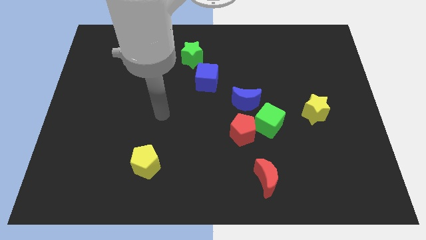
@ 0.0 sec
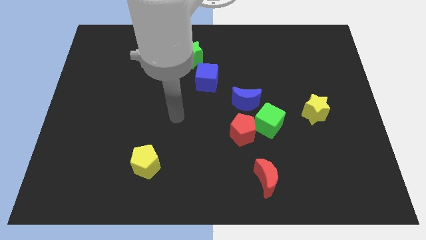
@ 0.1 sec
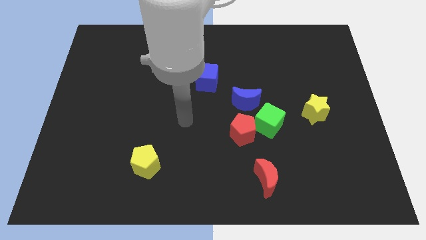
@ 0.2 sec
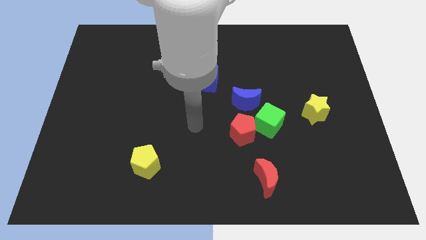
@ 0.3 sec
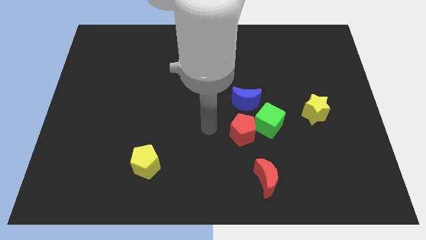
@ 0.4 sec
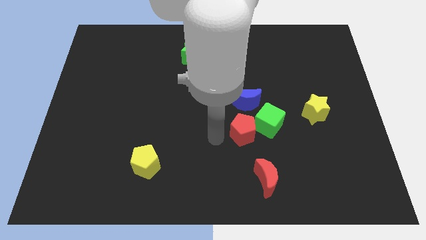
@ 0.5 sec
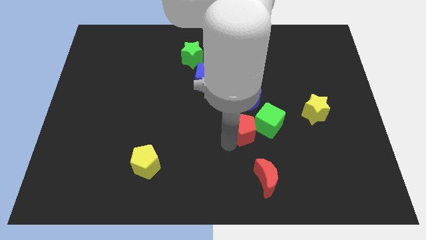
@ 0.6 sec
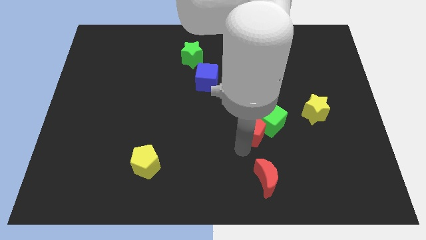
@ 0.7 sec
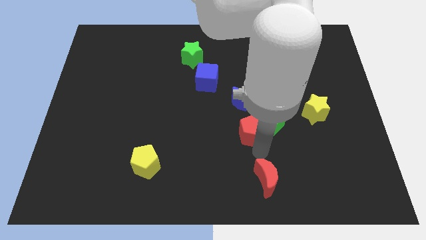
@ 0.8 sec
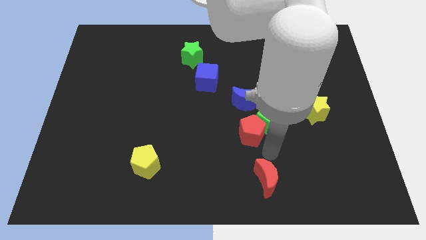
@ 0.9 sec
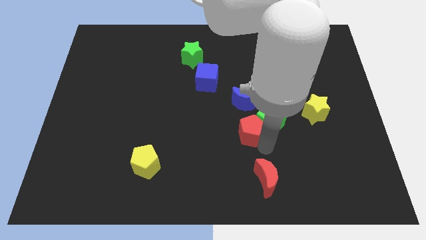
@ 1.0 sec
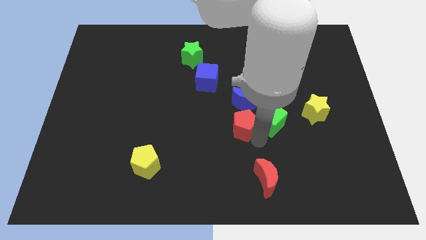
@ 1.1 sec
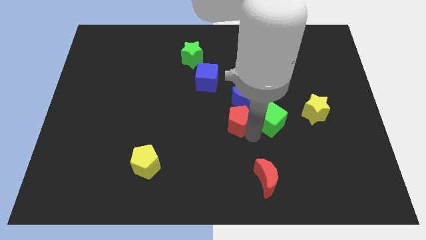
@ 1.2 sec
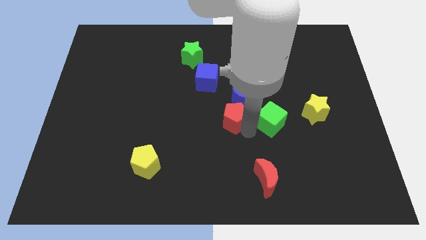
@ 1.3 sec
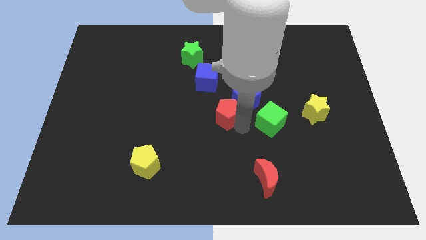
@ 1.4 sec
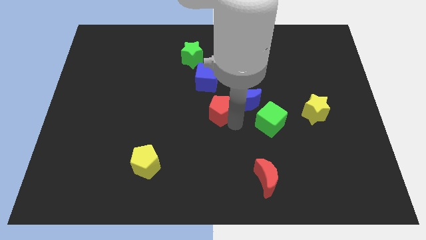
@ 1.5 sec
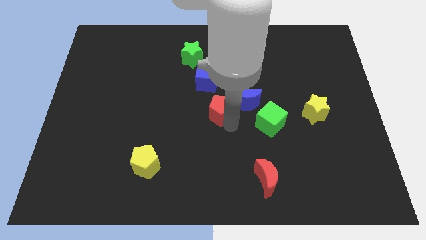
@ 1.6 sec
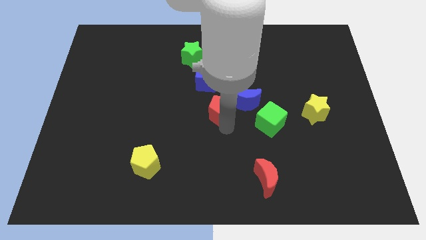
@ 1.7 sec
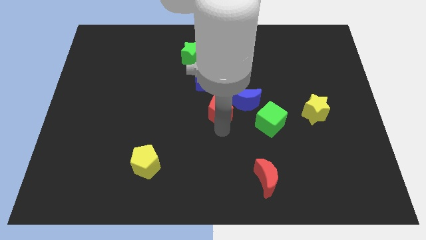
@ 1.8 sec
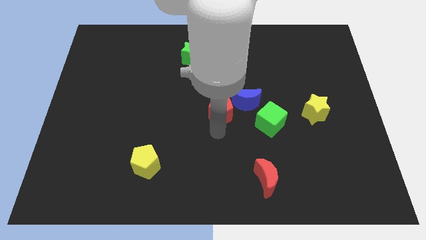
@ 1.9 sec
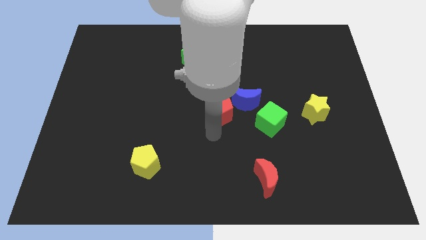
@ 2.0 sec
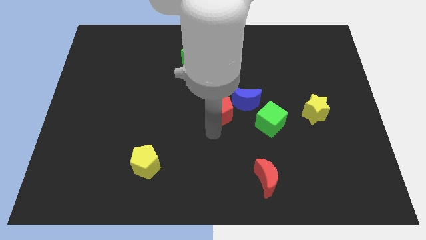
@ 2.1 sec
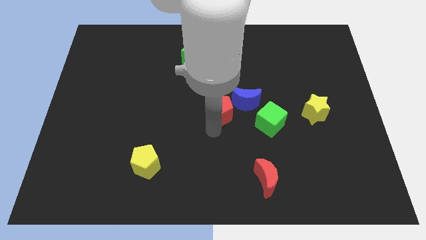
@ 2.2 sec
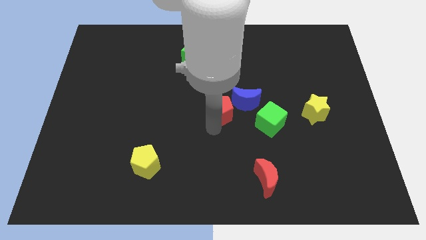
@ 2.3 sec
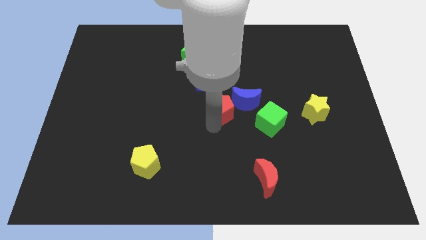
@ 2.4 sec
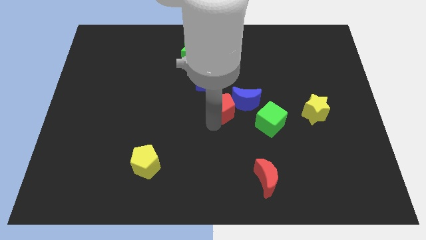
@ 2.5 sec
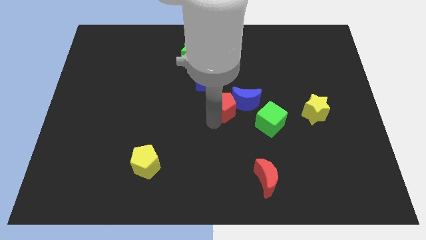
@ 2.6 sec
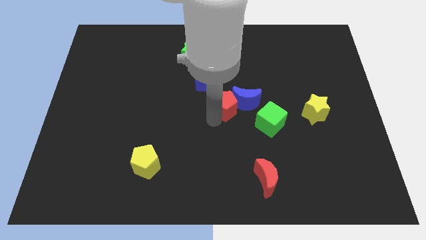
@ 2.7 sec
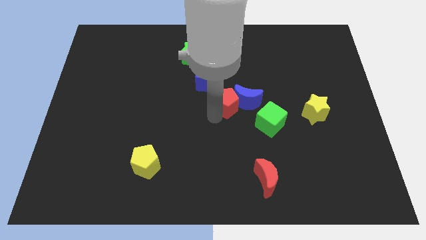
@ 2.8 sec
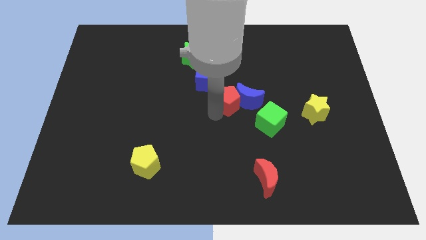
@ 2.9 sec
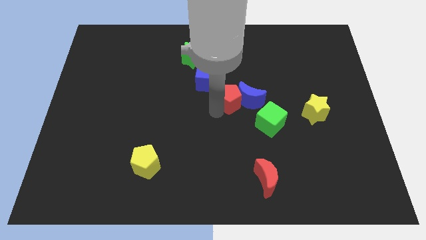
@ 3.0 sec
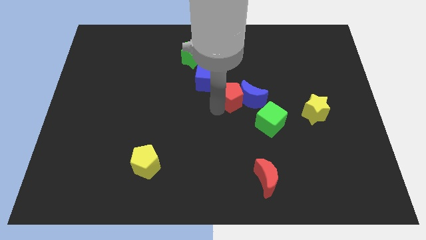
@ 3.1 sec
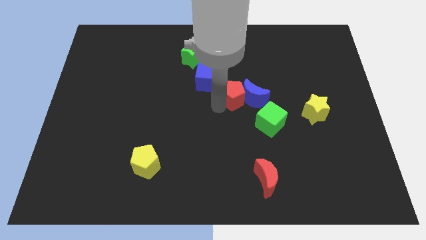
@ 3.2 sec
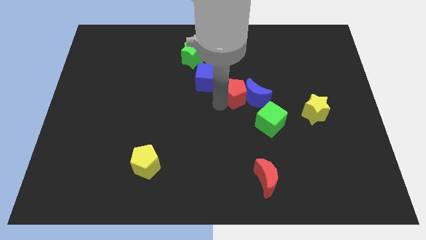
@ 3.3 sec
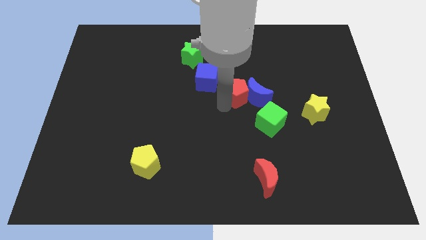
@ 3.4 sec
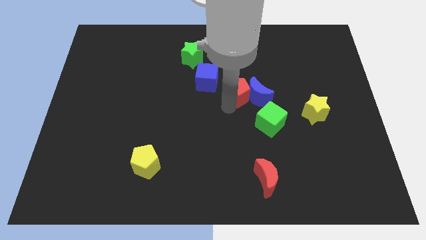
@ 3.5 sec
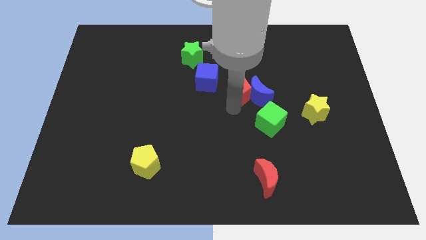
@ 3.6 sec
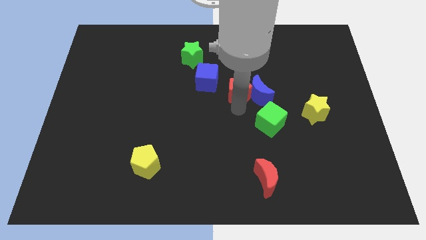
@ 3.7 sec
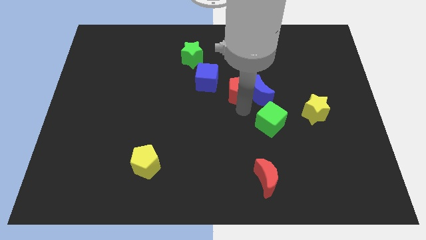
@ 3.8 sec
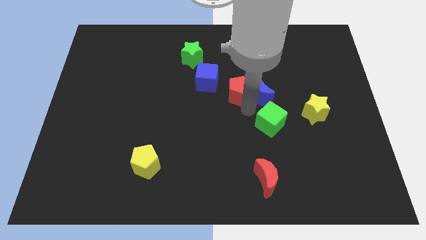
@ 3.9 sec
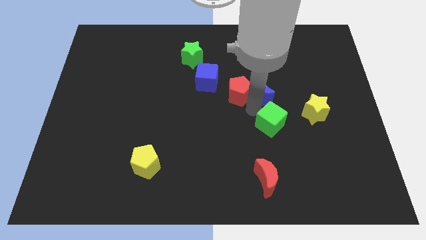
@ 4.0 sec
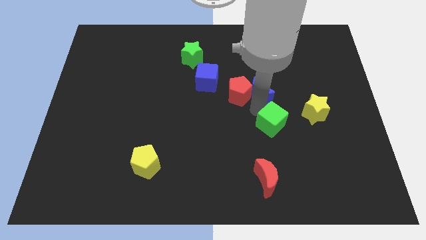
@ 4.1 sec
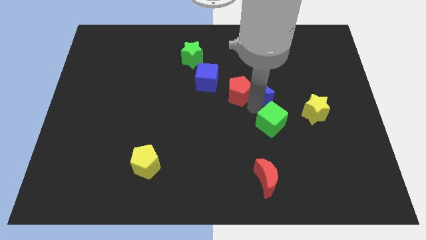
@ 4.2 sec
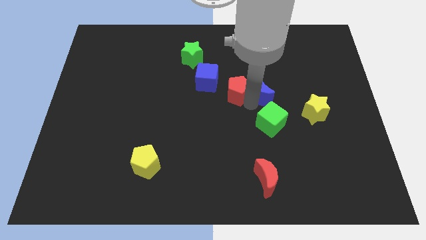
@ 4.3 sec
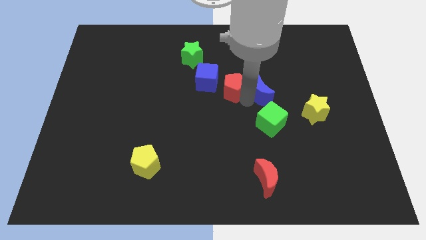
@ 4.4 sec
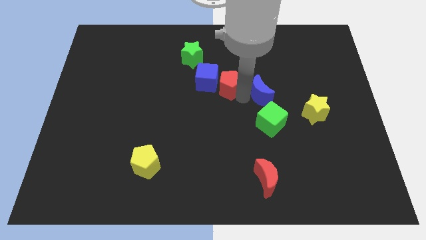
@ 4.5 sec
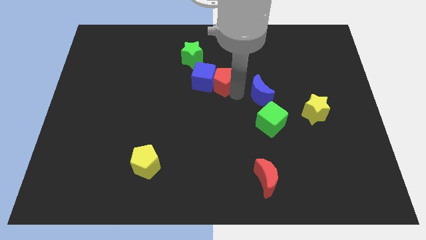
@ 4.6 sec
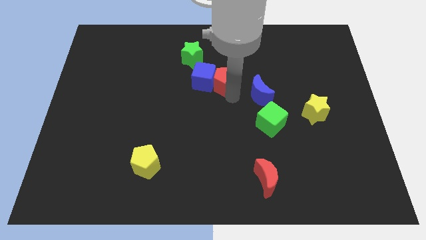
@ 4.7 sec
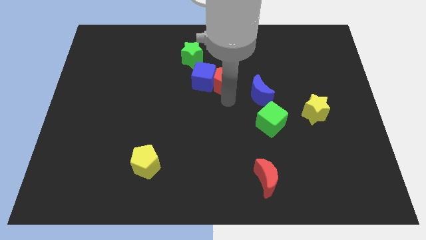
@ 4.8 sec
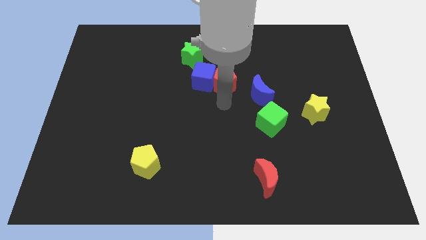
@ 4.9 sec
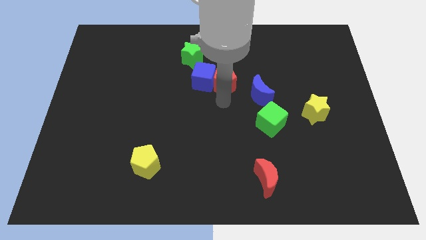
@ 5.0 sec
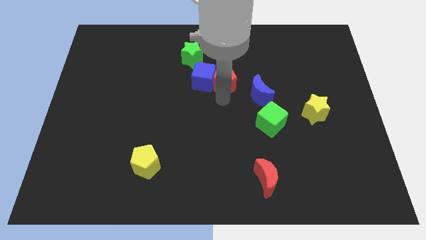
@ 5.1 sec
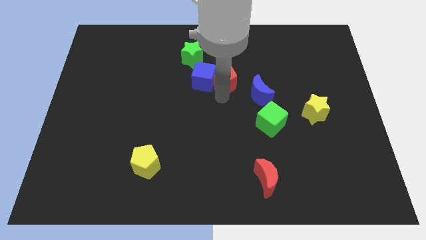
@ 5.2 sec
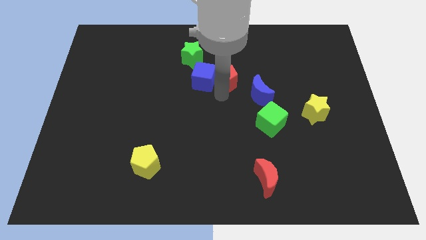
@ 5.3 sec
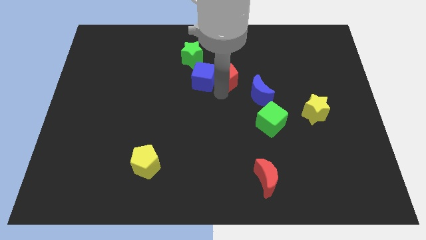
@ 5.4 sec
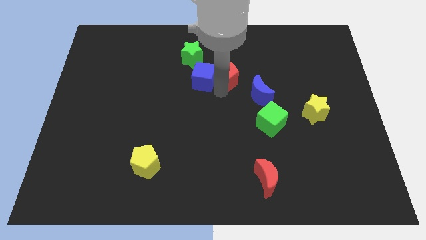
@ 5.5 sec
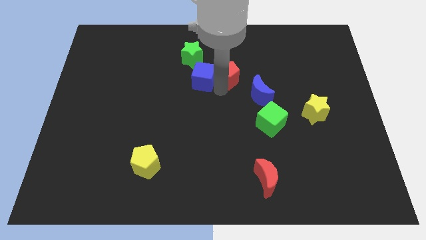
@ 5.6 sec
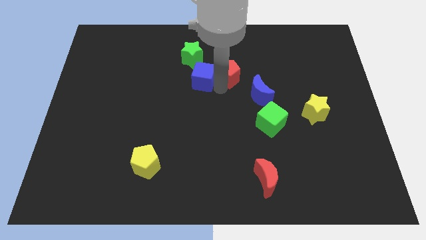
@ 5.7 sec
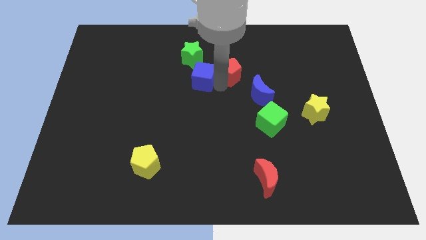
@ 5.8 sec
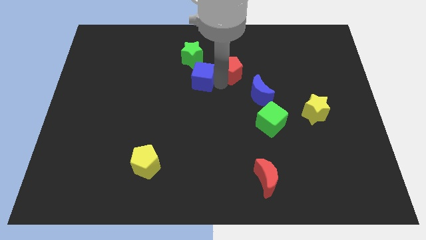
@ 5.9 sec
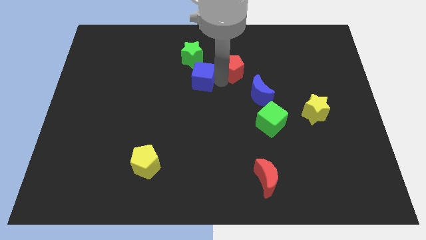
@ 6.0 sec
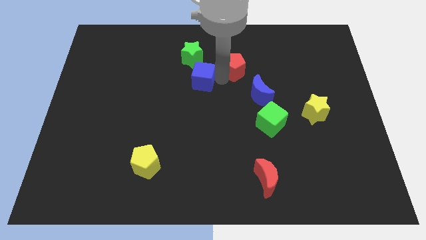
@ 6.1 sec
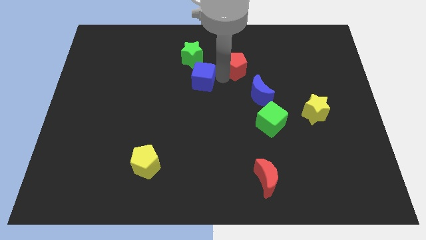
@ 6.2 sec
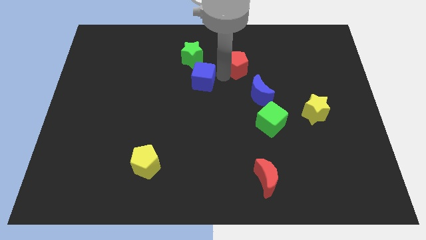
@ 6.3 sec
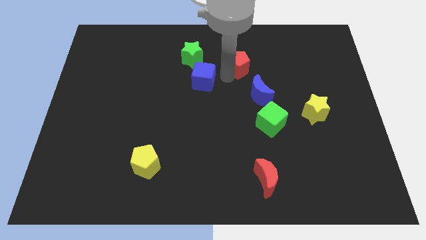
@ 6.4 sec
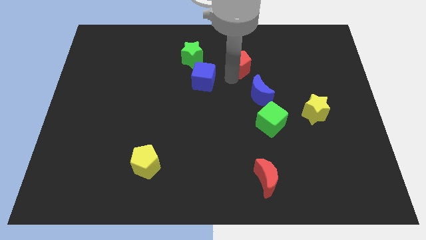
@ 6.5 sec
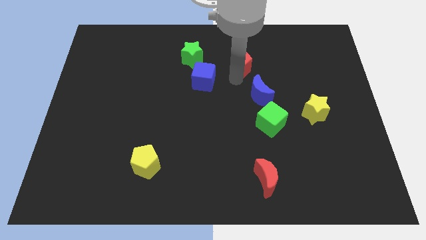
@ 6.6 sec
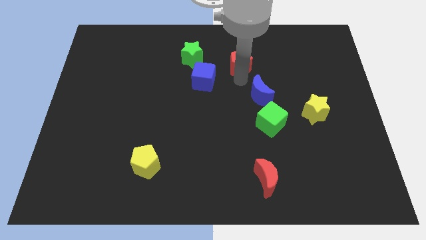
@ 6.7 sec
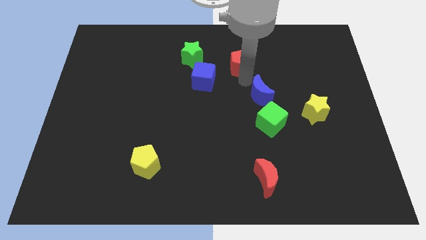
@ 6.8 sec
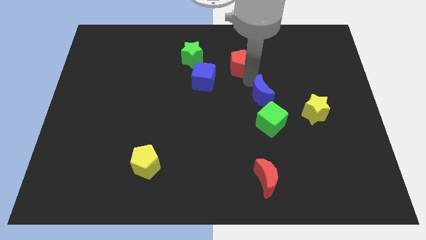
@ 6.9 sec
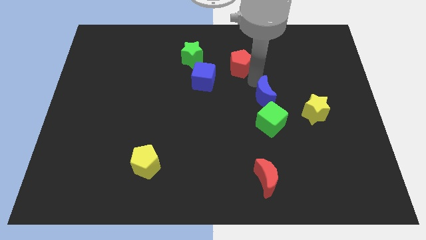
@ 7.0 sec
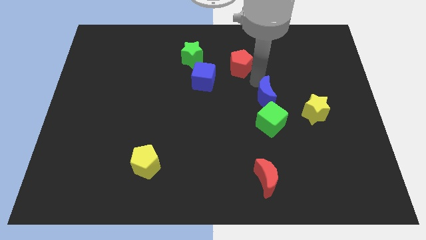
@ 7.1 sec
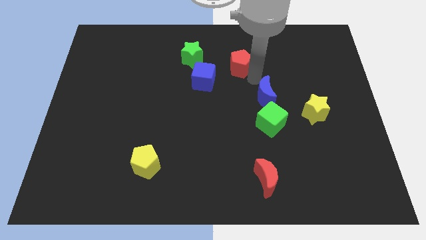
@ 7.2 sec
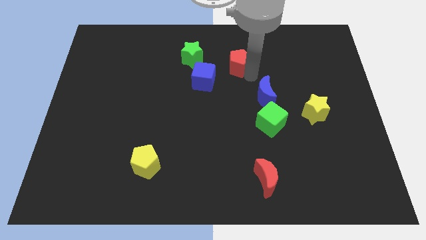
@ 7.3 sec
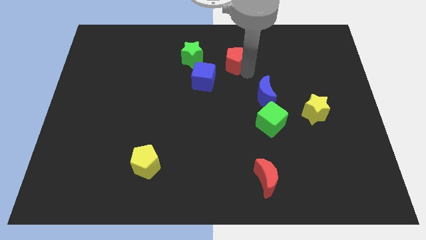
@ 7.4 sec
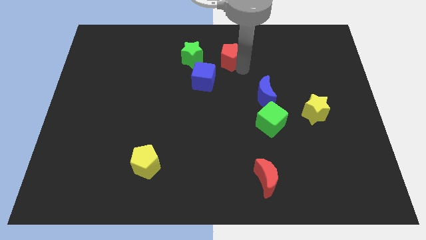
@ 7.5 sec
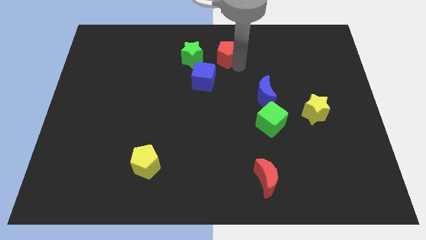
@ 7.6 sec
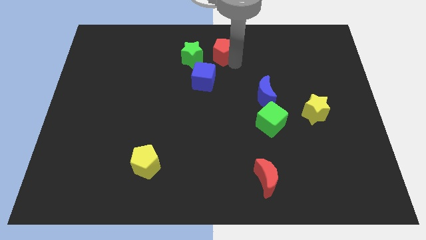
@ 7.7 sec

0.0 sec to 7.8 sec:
slide the red pentagon to the towards your base
